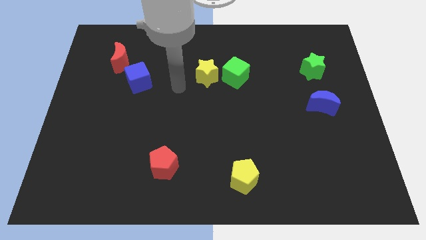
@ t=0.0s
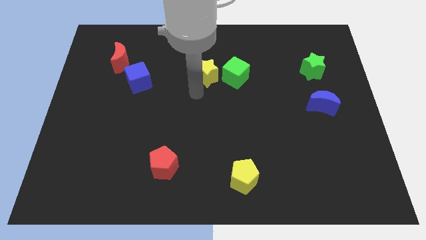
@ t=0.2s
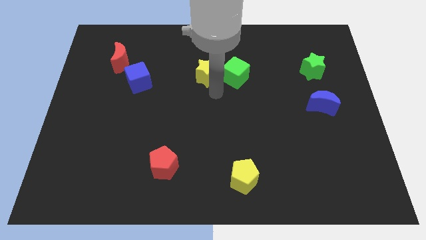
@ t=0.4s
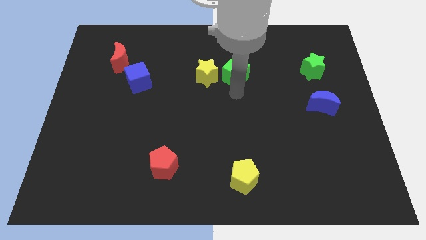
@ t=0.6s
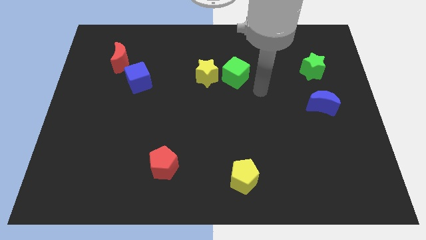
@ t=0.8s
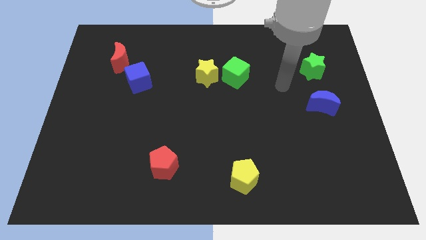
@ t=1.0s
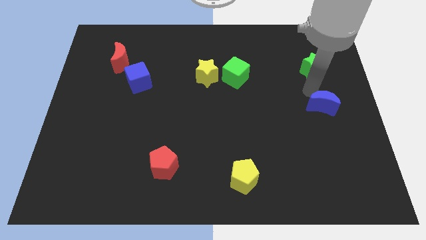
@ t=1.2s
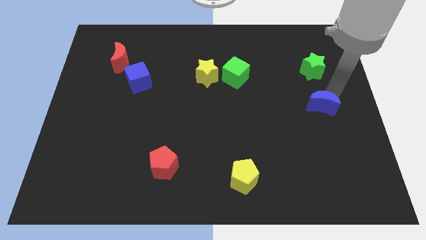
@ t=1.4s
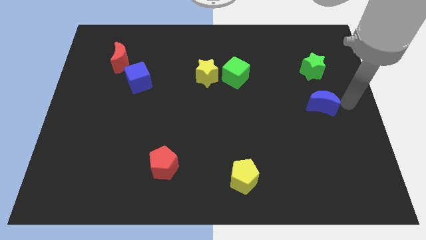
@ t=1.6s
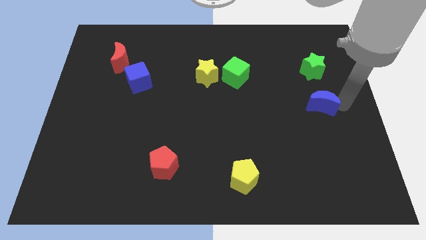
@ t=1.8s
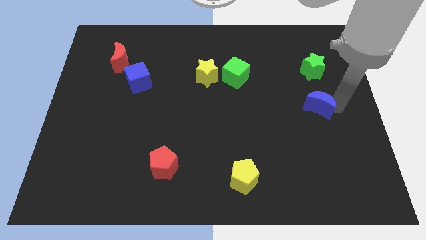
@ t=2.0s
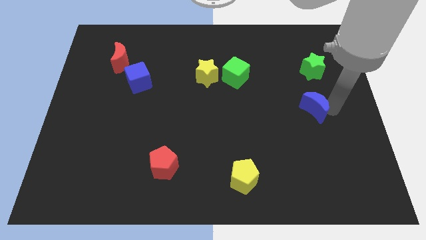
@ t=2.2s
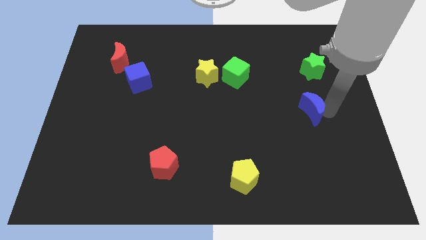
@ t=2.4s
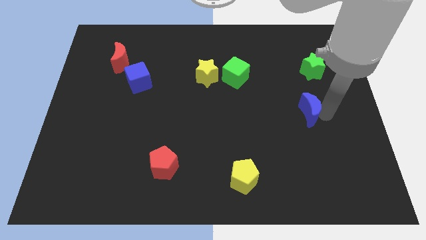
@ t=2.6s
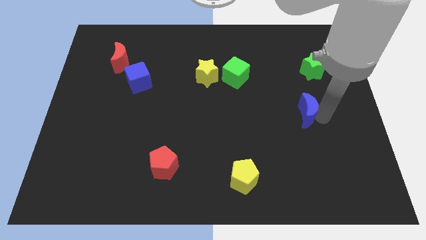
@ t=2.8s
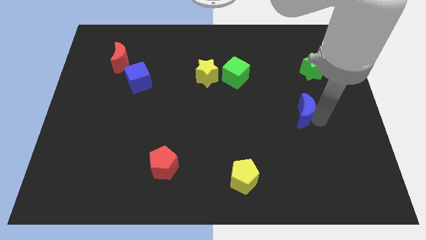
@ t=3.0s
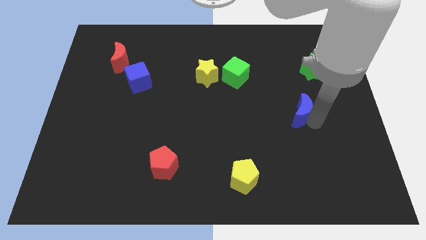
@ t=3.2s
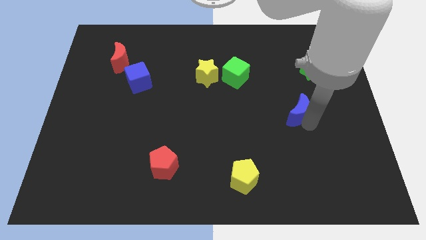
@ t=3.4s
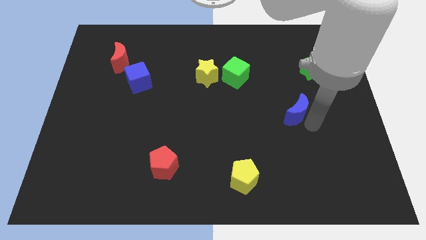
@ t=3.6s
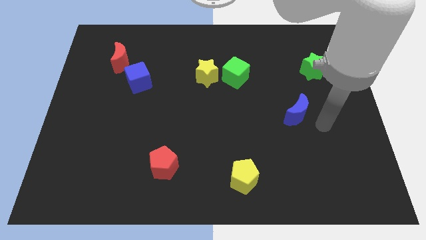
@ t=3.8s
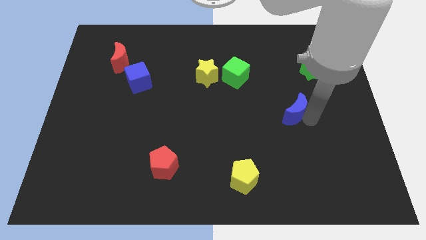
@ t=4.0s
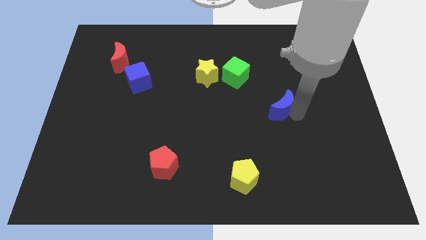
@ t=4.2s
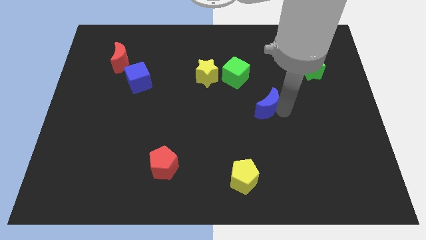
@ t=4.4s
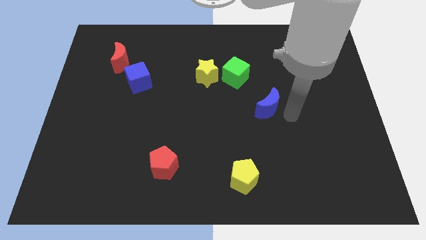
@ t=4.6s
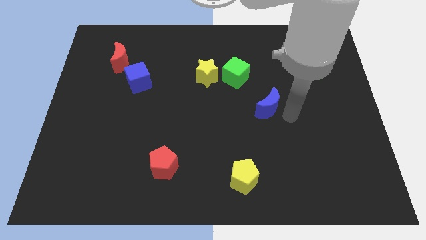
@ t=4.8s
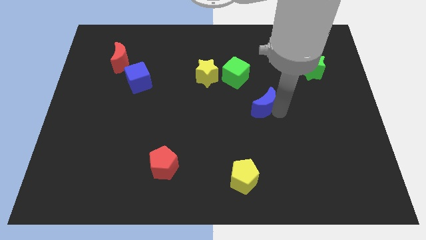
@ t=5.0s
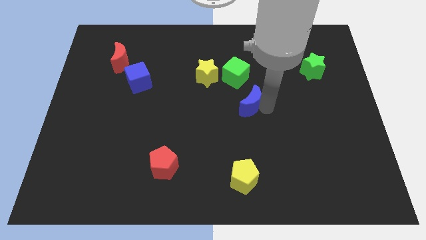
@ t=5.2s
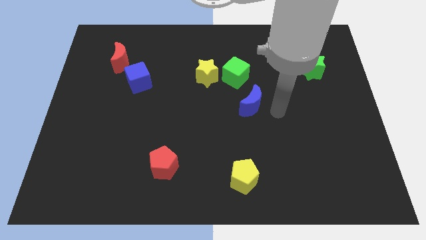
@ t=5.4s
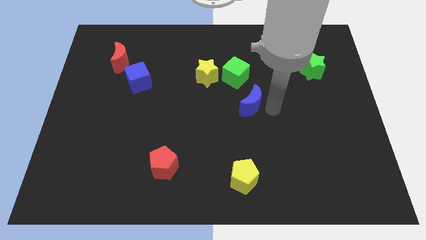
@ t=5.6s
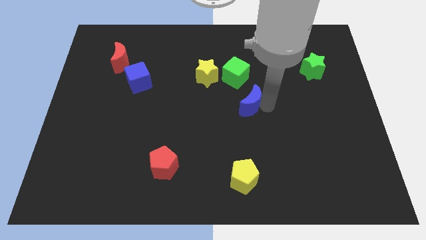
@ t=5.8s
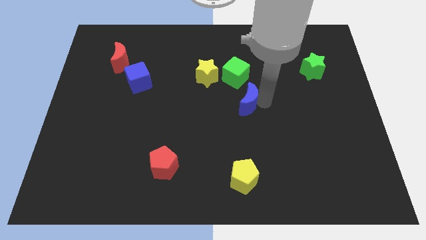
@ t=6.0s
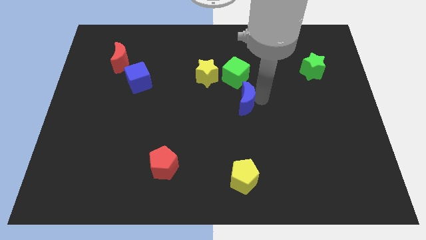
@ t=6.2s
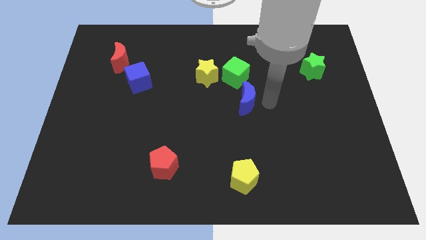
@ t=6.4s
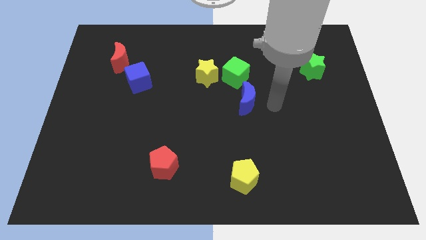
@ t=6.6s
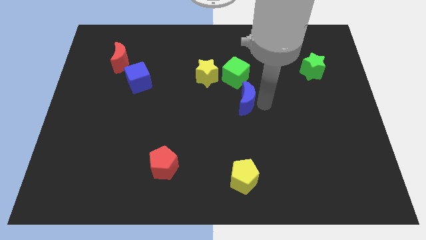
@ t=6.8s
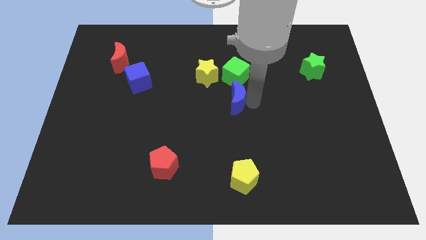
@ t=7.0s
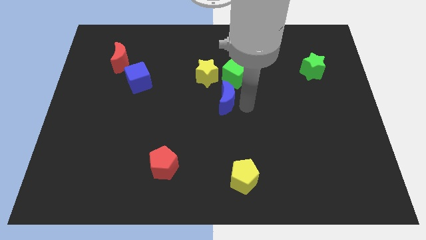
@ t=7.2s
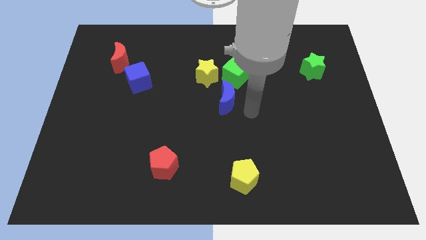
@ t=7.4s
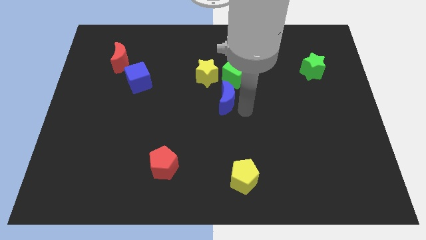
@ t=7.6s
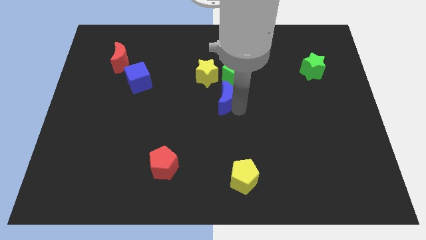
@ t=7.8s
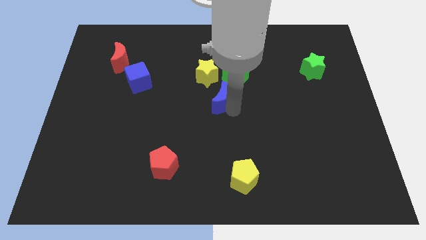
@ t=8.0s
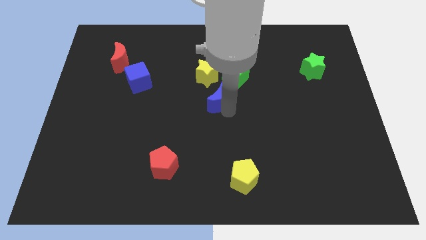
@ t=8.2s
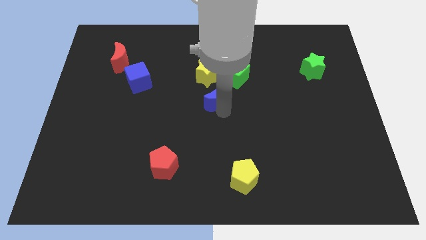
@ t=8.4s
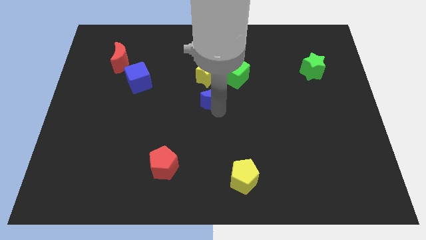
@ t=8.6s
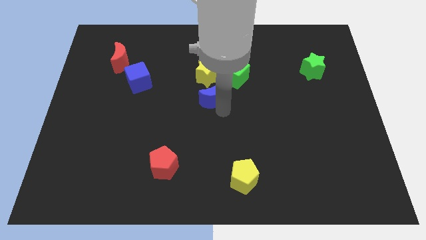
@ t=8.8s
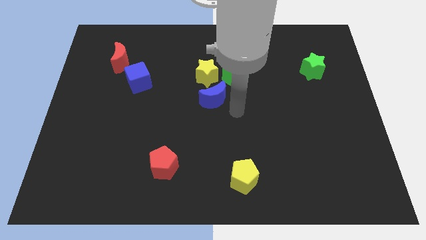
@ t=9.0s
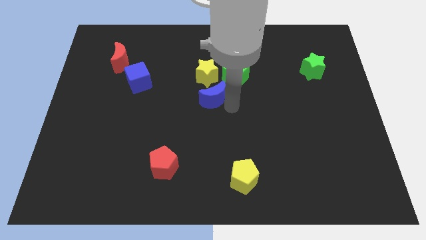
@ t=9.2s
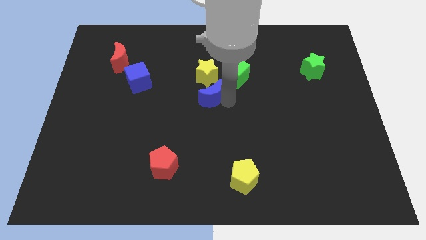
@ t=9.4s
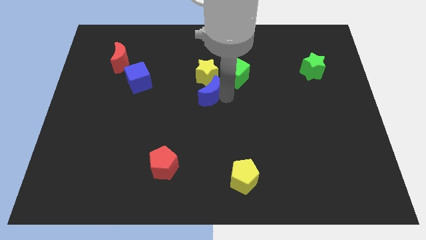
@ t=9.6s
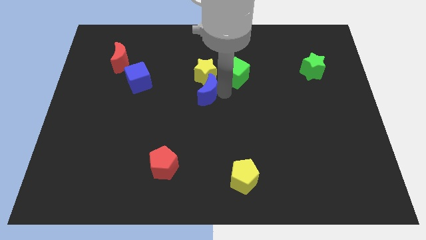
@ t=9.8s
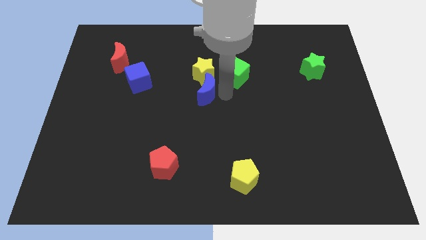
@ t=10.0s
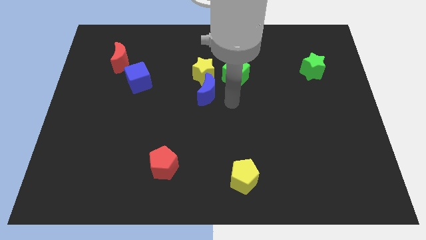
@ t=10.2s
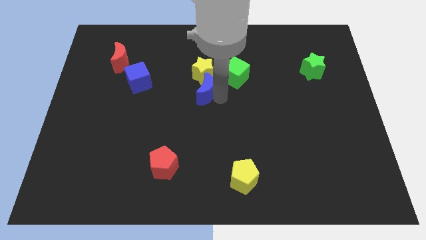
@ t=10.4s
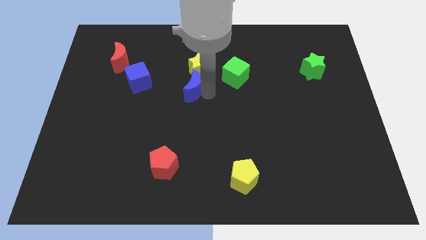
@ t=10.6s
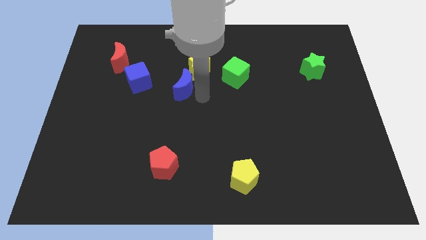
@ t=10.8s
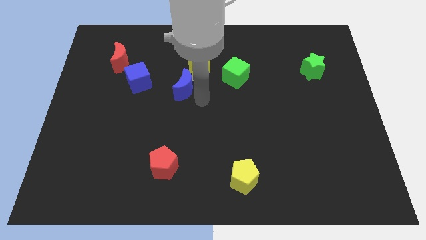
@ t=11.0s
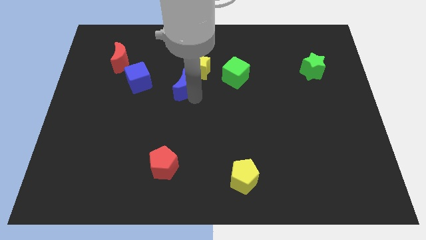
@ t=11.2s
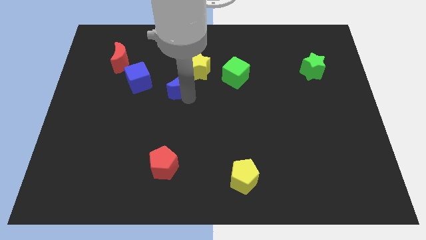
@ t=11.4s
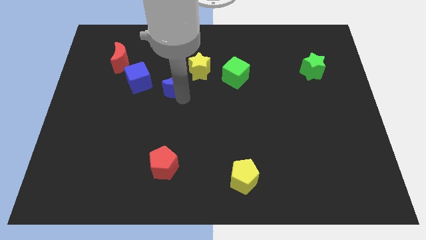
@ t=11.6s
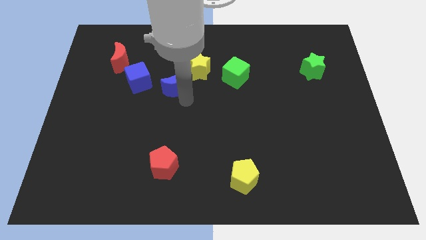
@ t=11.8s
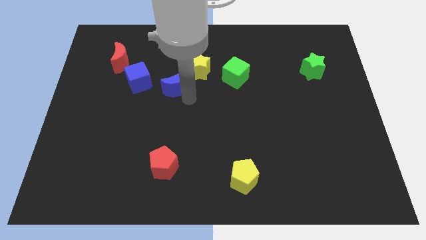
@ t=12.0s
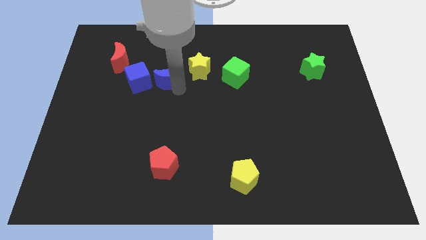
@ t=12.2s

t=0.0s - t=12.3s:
put the blue moon to the left side of the yellow star
